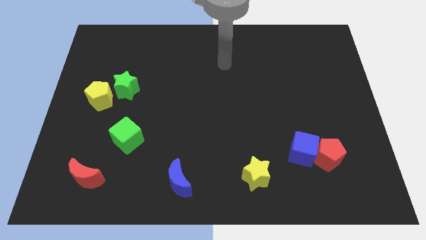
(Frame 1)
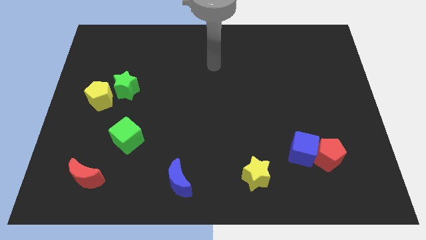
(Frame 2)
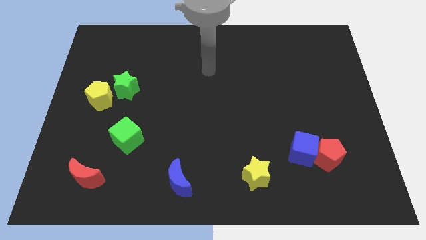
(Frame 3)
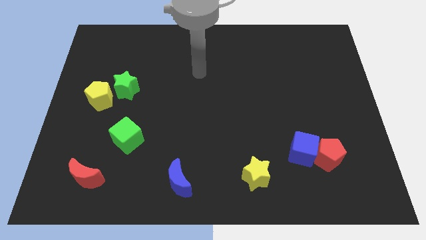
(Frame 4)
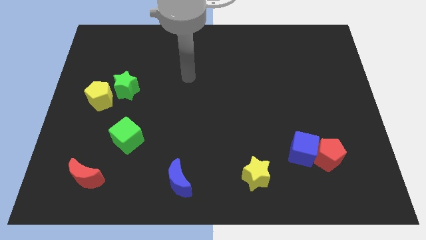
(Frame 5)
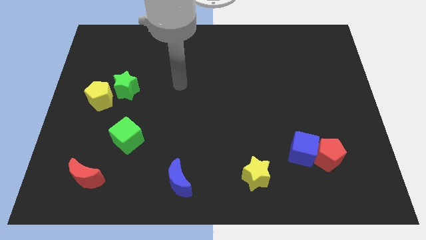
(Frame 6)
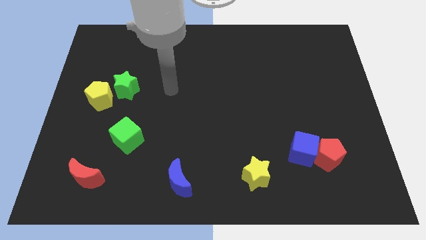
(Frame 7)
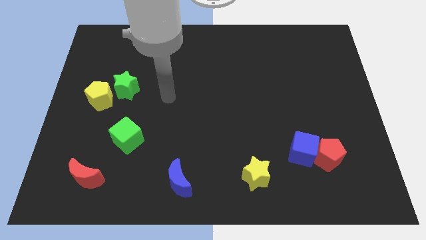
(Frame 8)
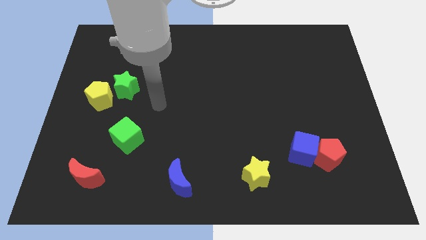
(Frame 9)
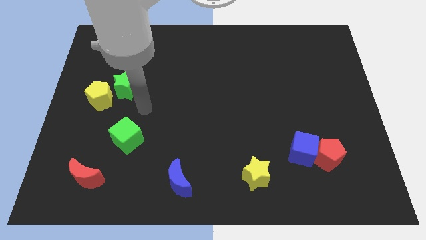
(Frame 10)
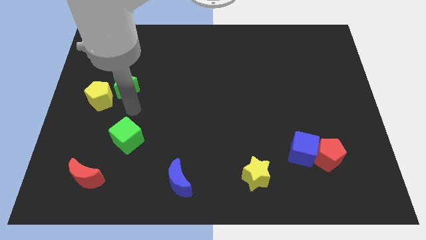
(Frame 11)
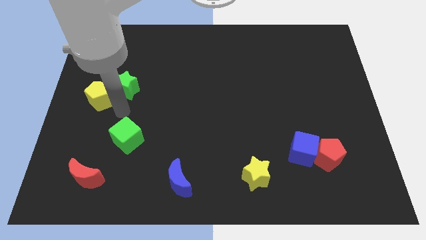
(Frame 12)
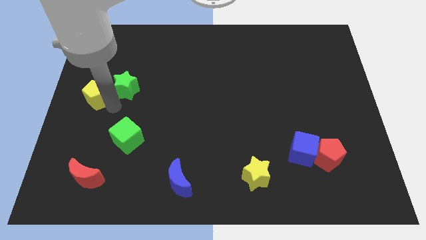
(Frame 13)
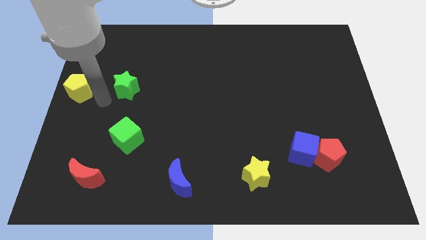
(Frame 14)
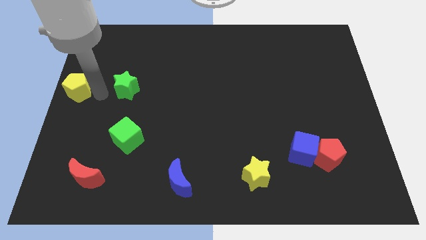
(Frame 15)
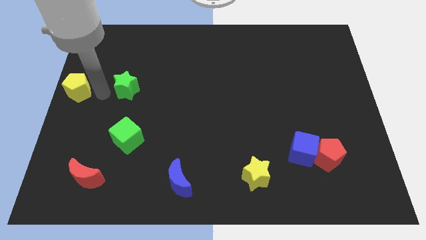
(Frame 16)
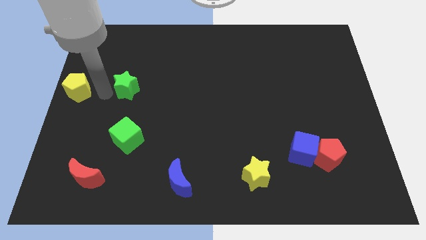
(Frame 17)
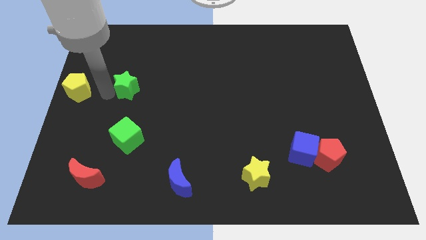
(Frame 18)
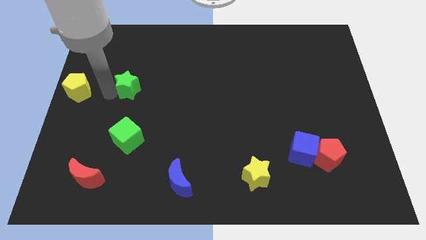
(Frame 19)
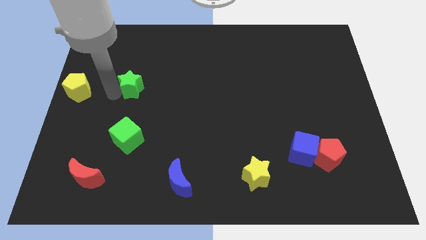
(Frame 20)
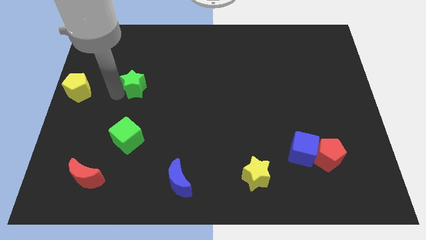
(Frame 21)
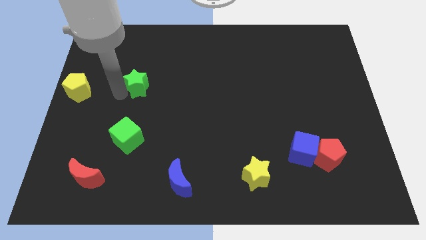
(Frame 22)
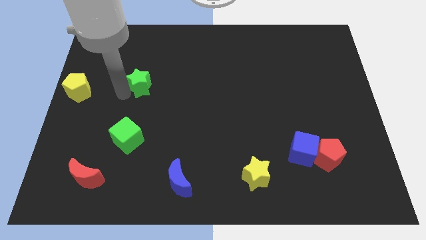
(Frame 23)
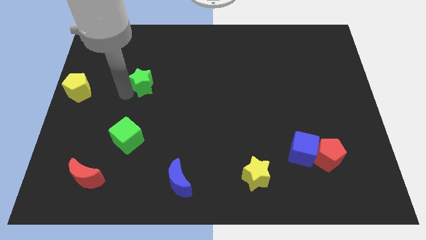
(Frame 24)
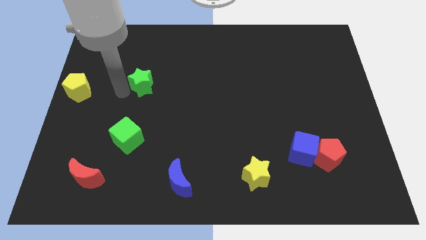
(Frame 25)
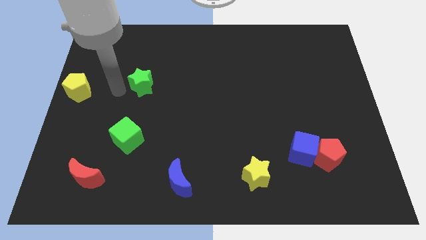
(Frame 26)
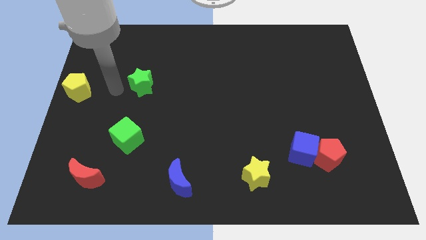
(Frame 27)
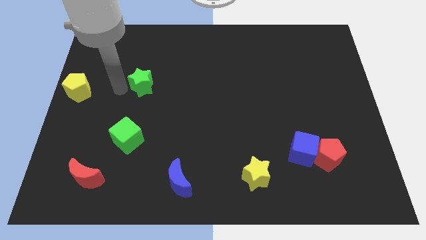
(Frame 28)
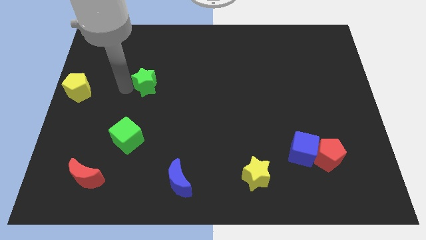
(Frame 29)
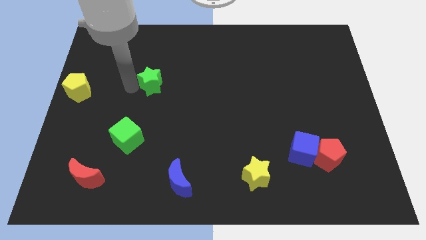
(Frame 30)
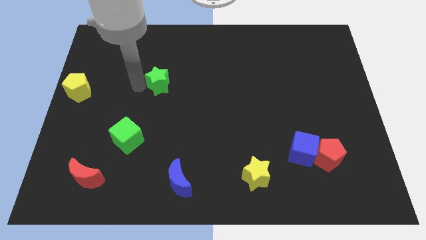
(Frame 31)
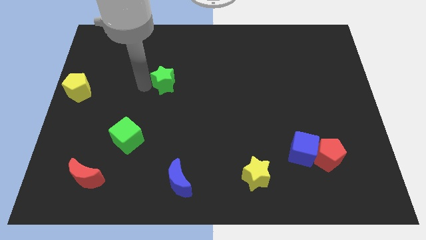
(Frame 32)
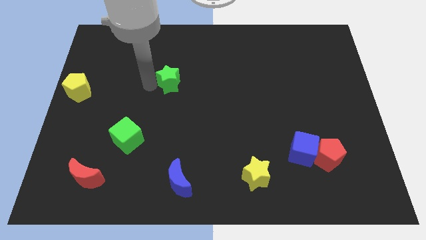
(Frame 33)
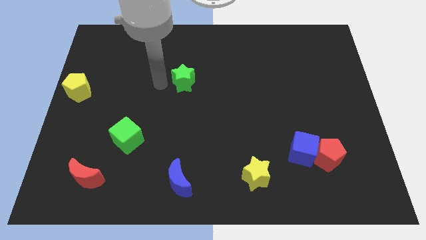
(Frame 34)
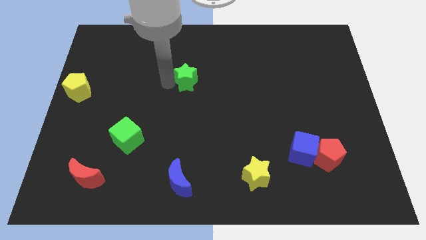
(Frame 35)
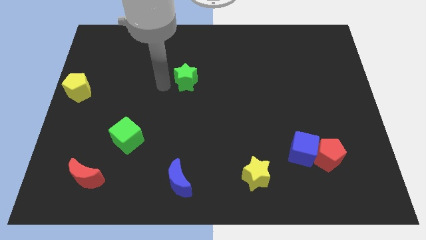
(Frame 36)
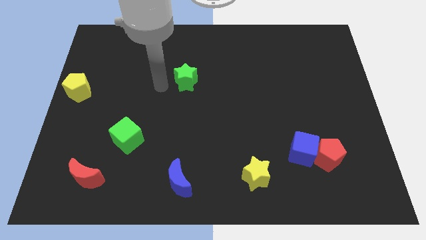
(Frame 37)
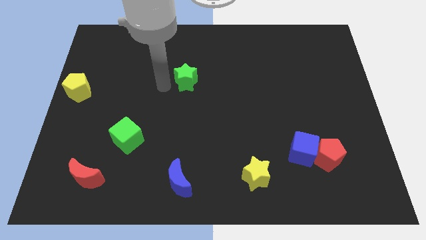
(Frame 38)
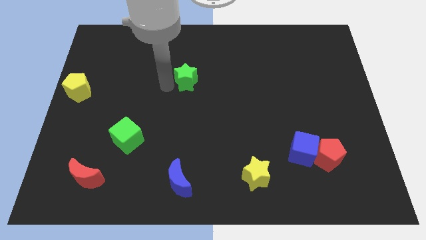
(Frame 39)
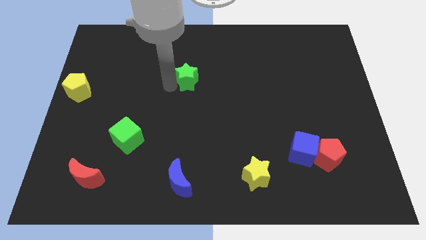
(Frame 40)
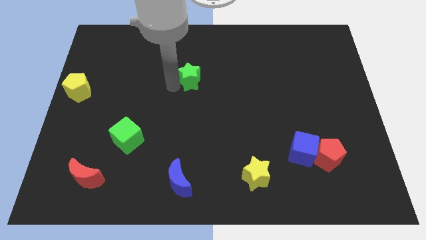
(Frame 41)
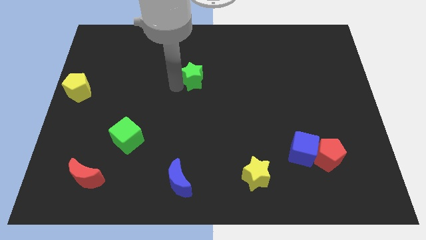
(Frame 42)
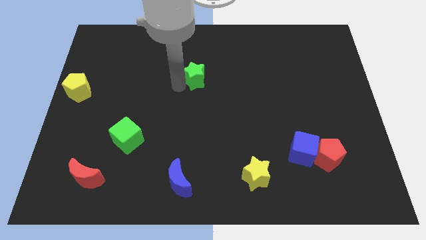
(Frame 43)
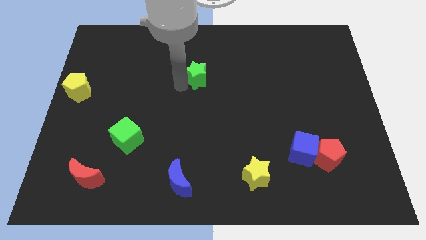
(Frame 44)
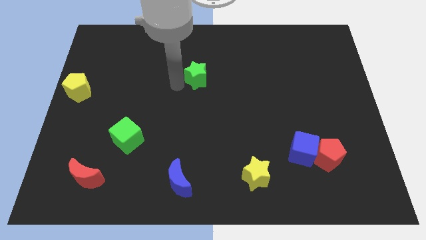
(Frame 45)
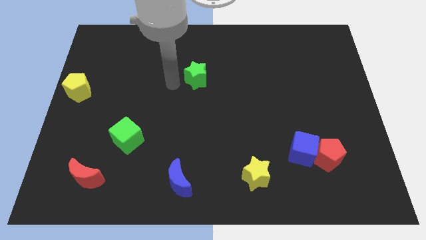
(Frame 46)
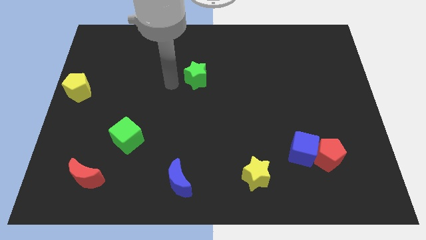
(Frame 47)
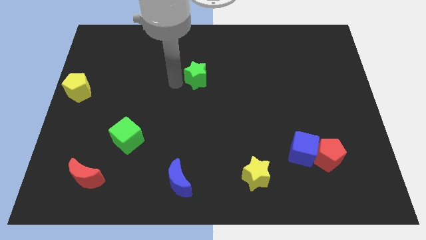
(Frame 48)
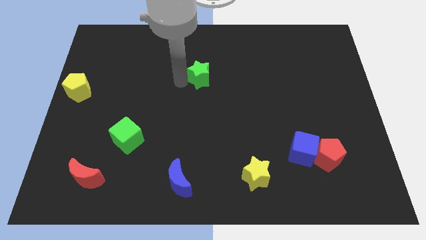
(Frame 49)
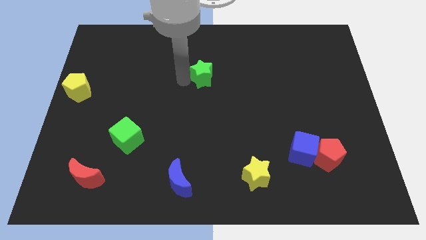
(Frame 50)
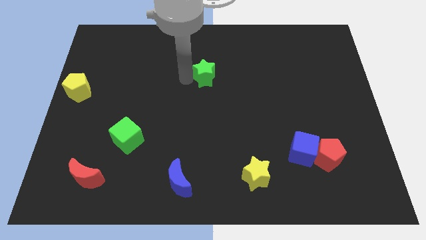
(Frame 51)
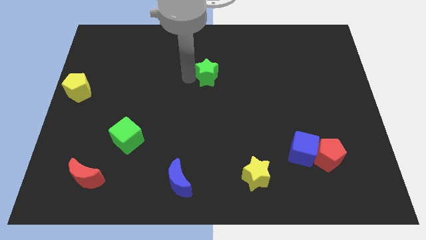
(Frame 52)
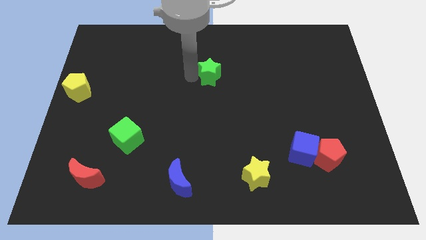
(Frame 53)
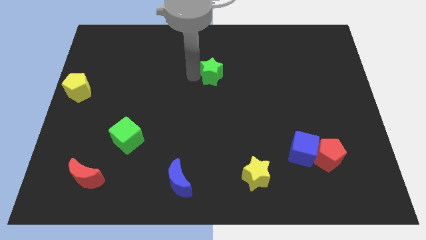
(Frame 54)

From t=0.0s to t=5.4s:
slide the green star right

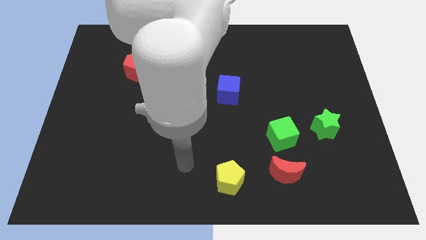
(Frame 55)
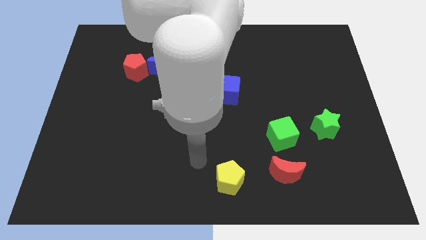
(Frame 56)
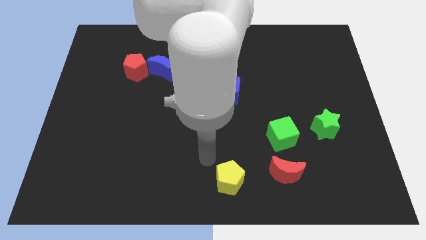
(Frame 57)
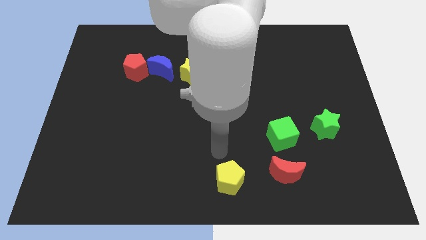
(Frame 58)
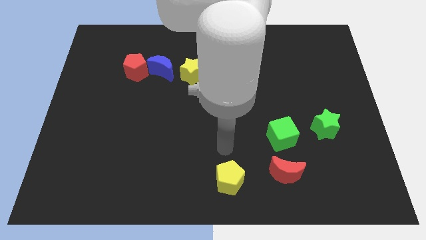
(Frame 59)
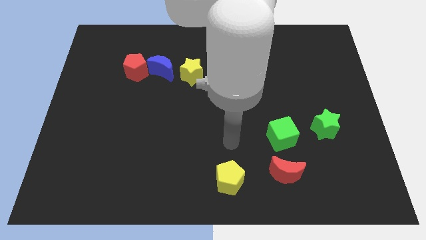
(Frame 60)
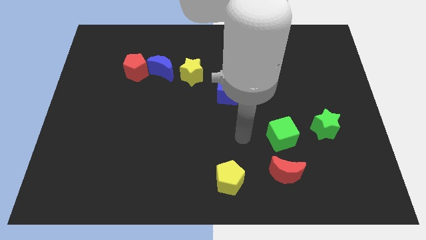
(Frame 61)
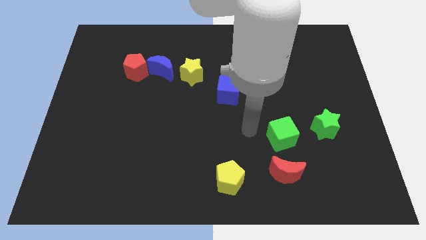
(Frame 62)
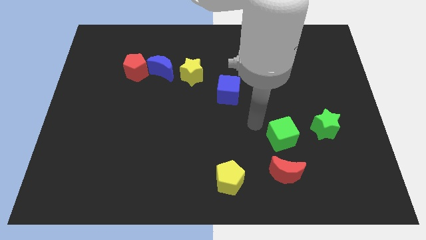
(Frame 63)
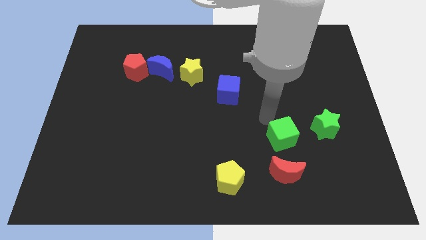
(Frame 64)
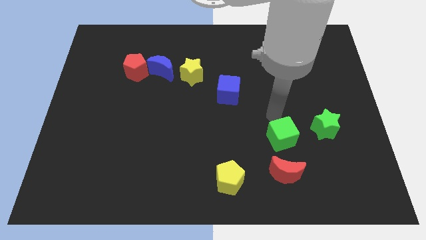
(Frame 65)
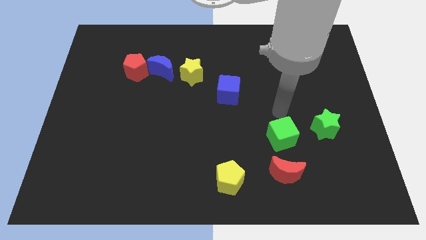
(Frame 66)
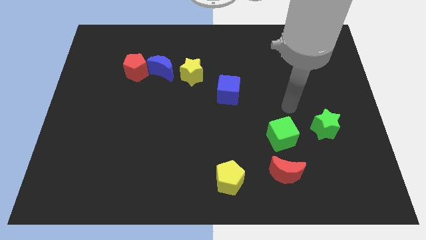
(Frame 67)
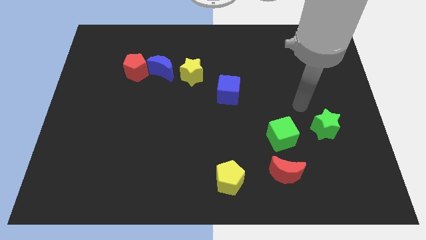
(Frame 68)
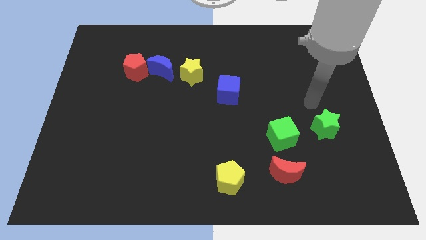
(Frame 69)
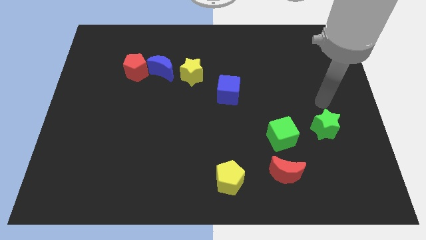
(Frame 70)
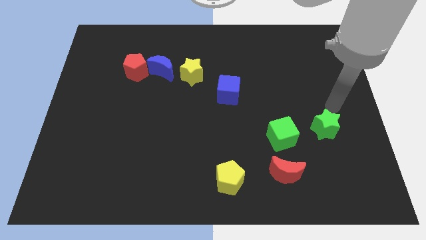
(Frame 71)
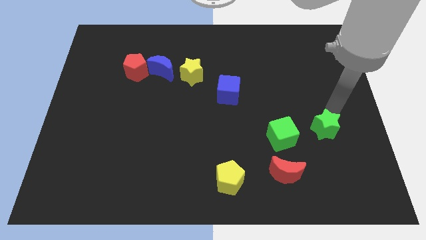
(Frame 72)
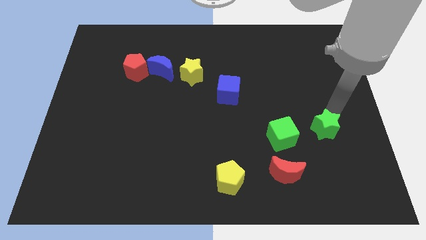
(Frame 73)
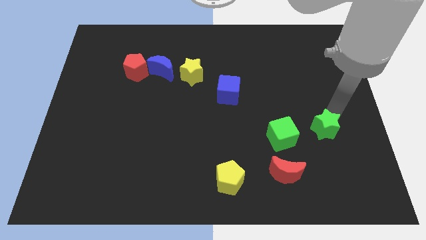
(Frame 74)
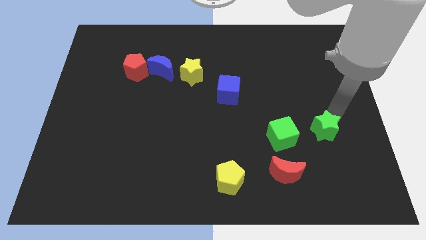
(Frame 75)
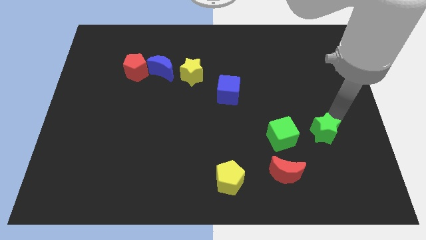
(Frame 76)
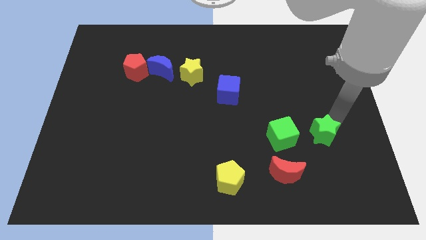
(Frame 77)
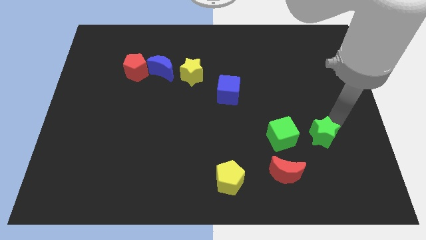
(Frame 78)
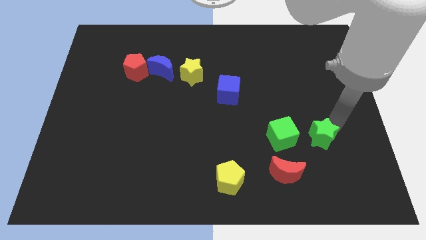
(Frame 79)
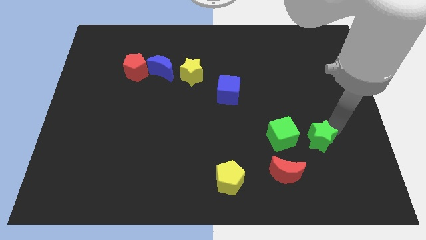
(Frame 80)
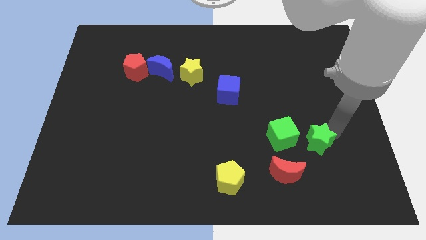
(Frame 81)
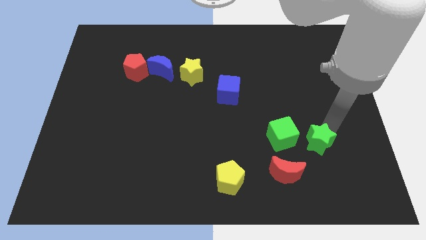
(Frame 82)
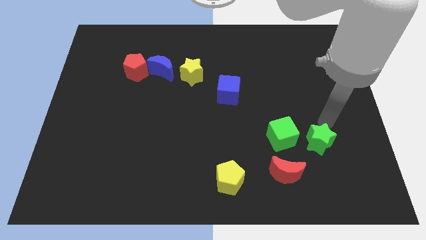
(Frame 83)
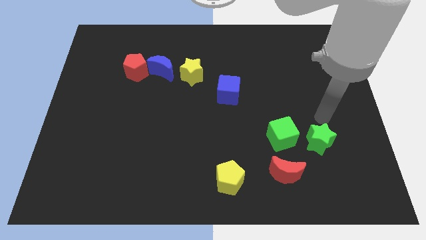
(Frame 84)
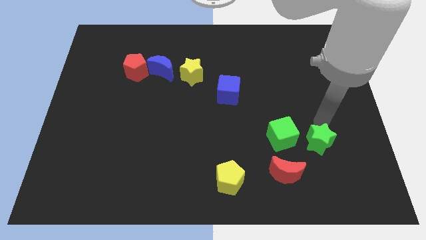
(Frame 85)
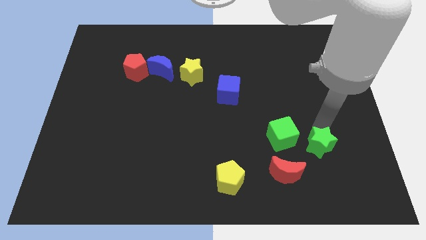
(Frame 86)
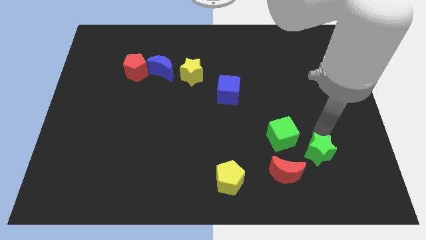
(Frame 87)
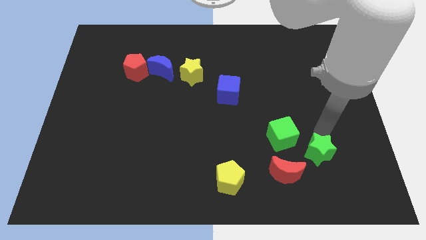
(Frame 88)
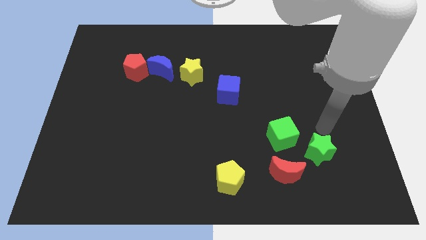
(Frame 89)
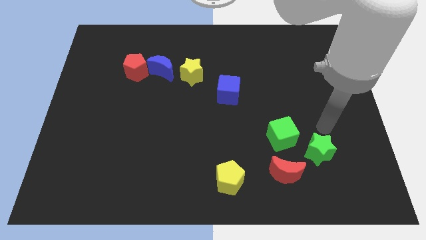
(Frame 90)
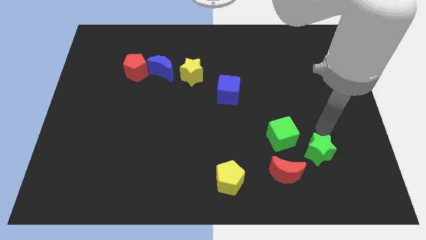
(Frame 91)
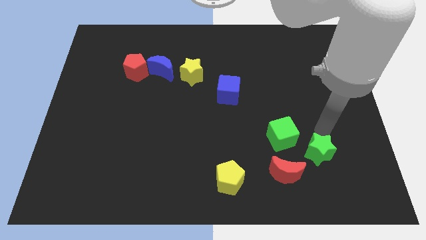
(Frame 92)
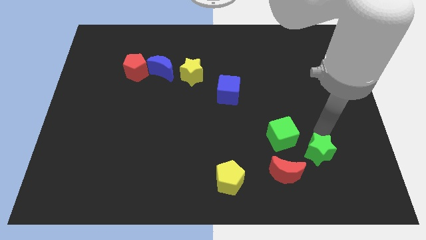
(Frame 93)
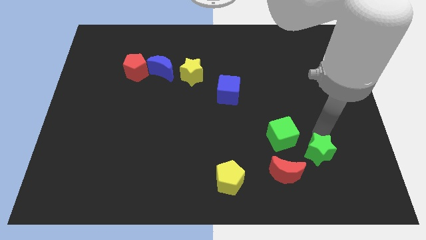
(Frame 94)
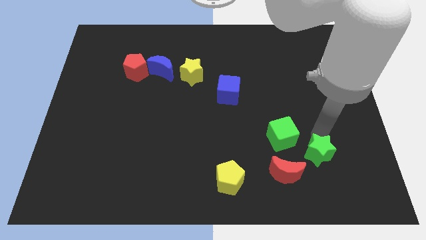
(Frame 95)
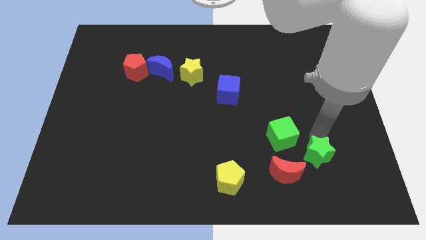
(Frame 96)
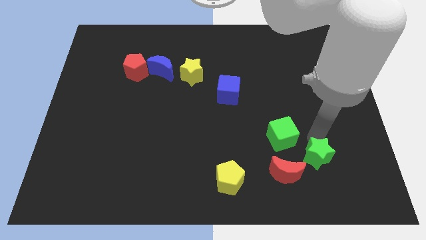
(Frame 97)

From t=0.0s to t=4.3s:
slide the green star downwards and left a little
